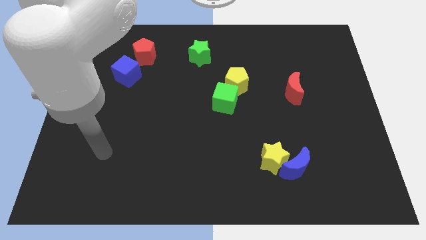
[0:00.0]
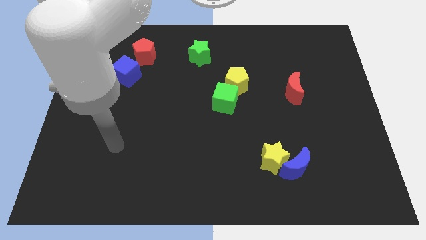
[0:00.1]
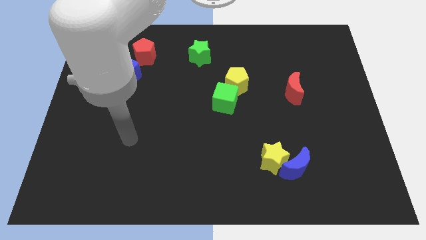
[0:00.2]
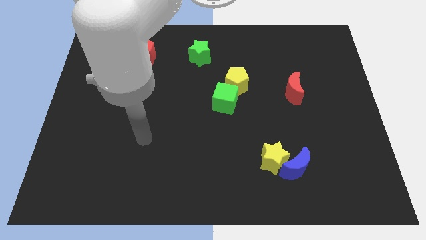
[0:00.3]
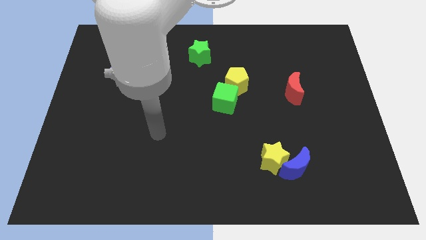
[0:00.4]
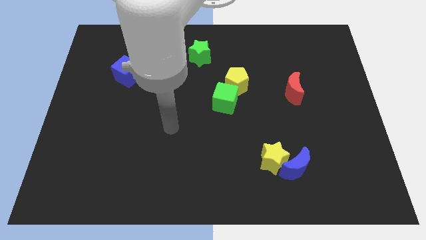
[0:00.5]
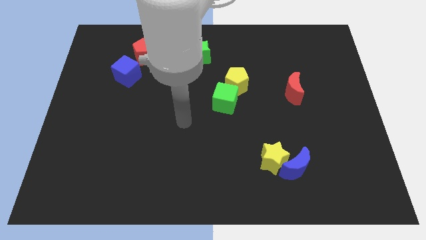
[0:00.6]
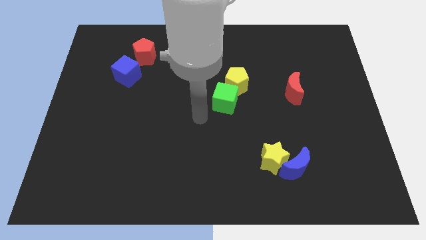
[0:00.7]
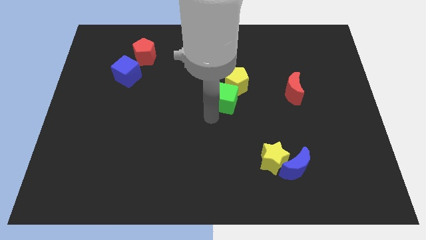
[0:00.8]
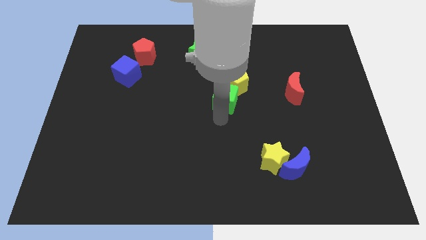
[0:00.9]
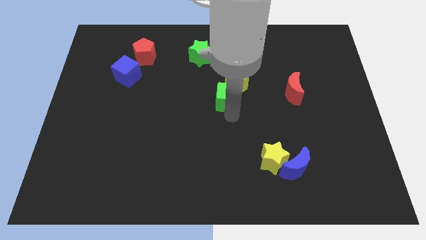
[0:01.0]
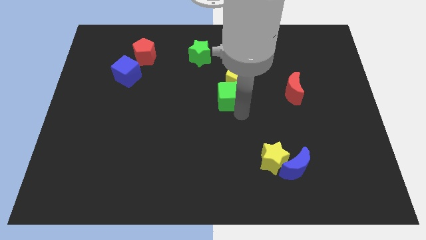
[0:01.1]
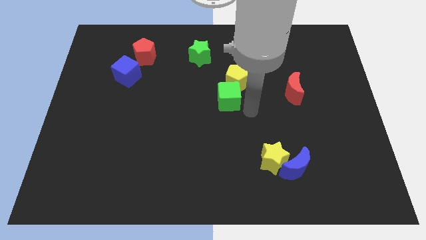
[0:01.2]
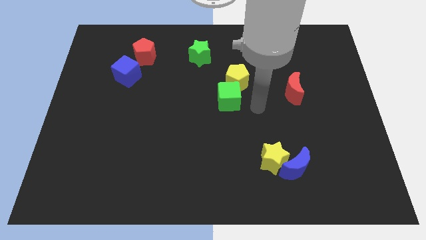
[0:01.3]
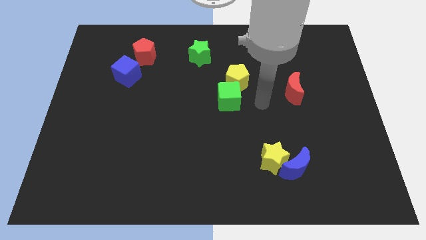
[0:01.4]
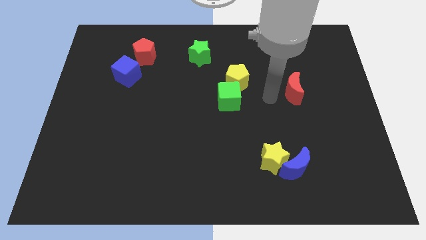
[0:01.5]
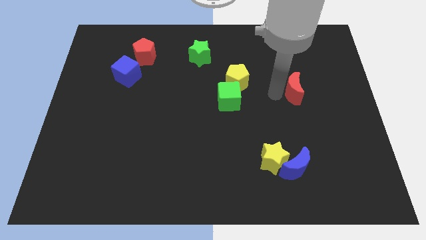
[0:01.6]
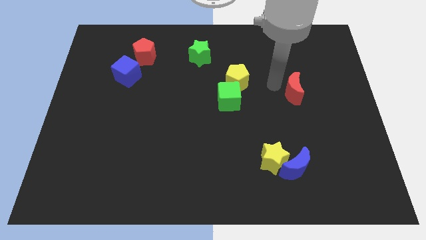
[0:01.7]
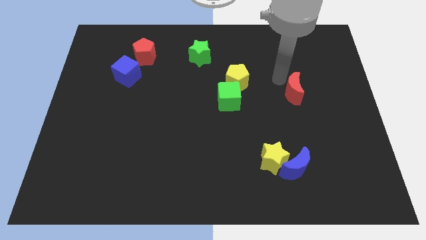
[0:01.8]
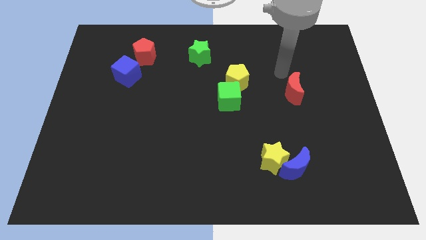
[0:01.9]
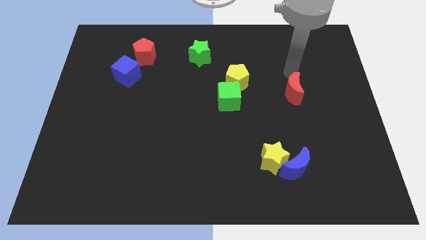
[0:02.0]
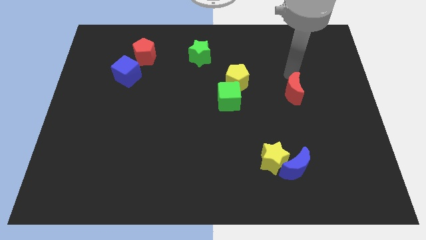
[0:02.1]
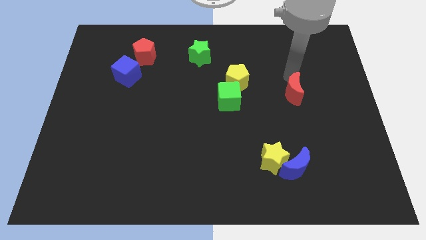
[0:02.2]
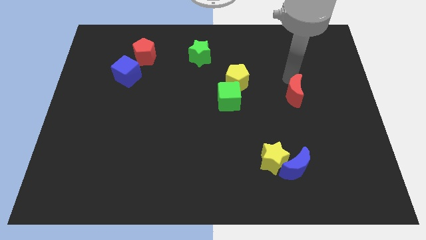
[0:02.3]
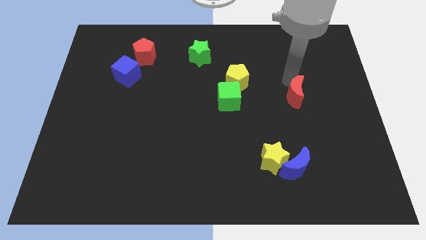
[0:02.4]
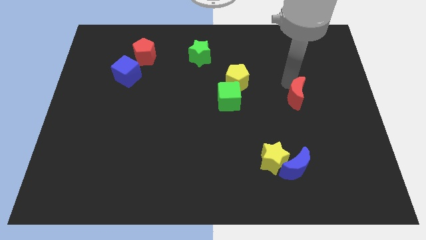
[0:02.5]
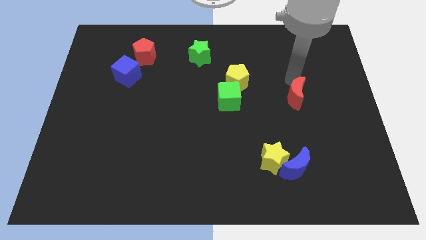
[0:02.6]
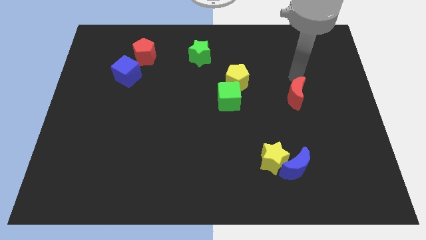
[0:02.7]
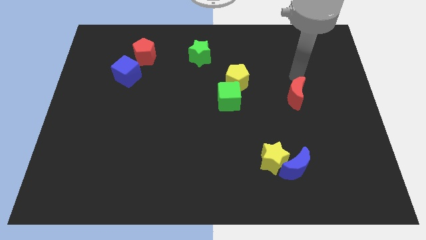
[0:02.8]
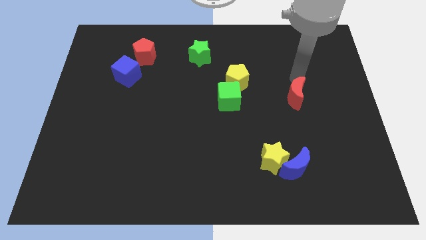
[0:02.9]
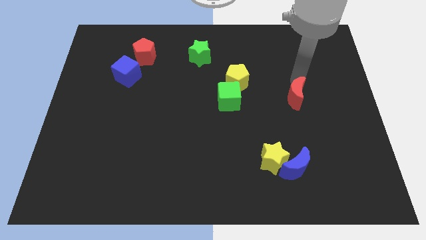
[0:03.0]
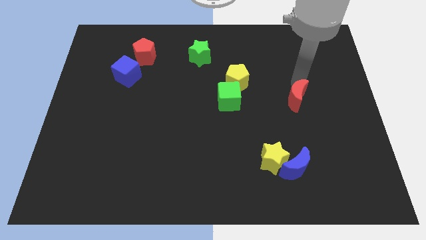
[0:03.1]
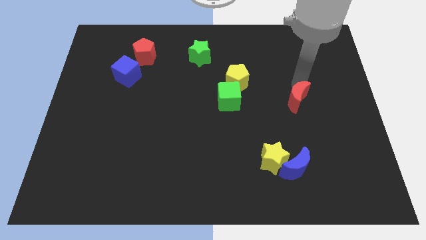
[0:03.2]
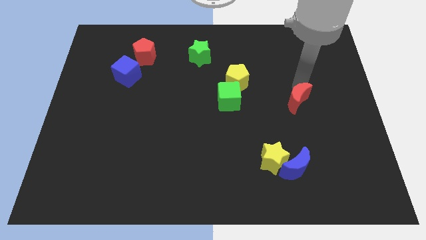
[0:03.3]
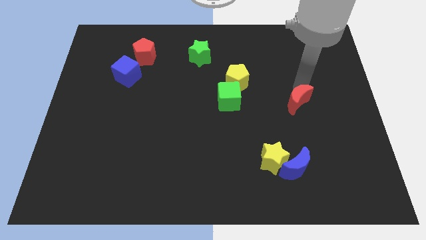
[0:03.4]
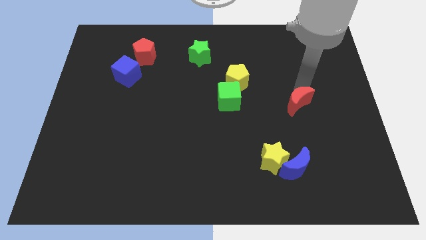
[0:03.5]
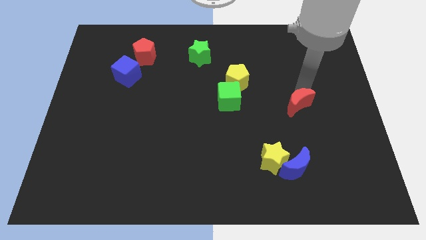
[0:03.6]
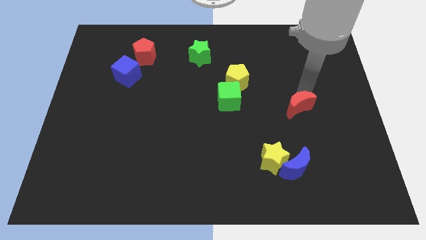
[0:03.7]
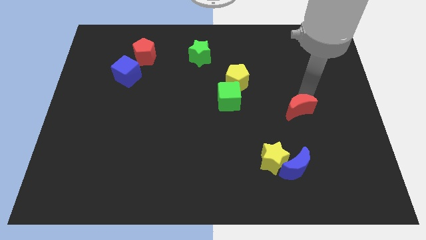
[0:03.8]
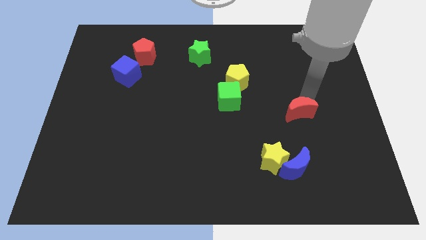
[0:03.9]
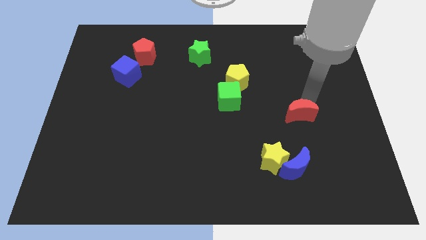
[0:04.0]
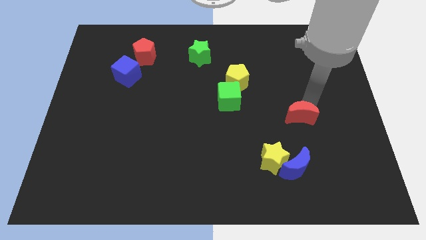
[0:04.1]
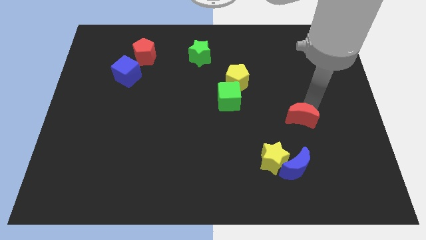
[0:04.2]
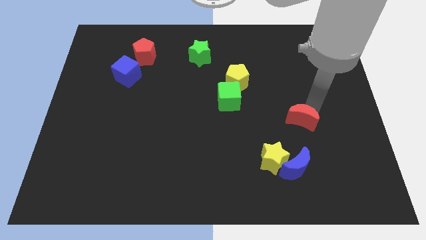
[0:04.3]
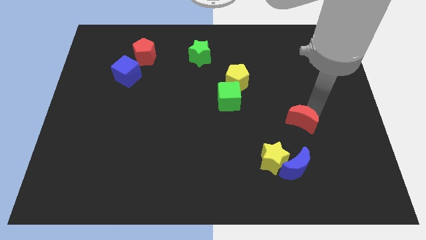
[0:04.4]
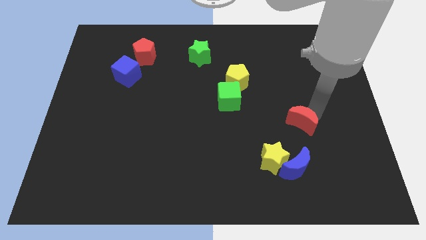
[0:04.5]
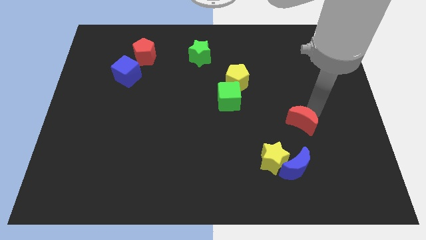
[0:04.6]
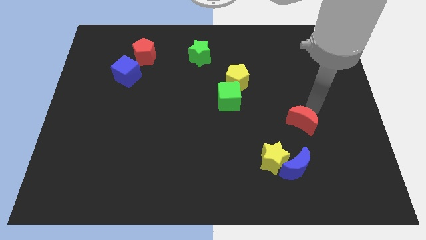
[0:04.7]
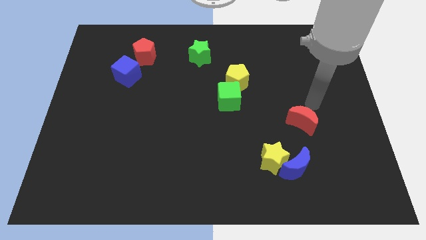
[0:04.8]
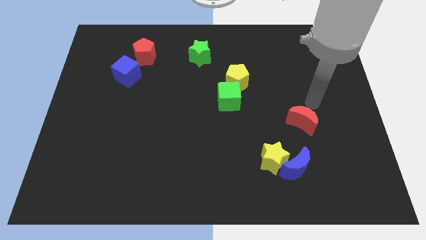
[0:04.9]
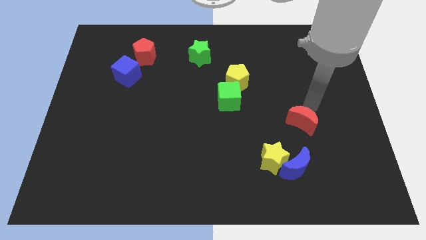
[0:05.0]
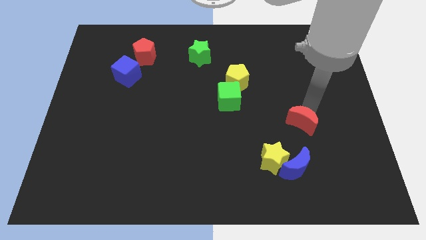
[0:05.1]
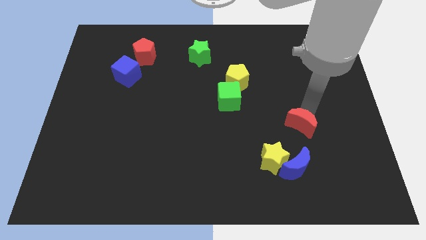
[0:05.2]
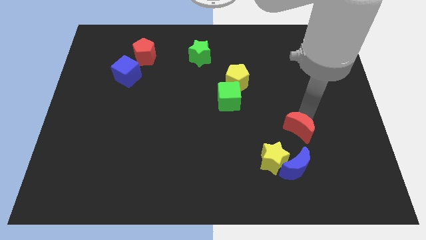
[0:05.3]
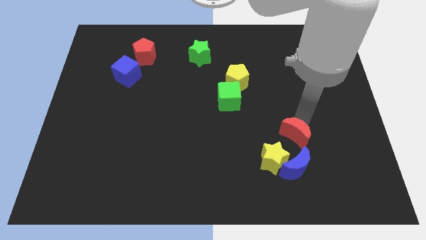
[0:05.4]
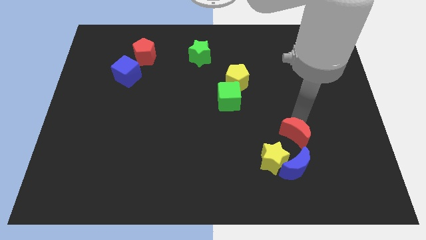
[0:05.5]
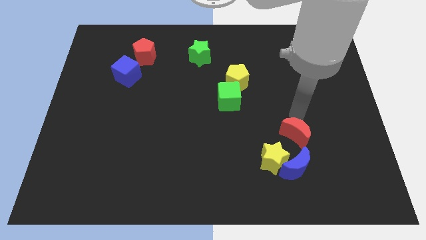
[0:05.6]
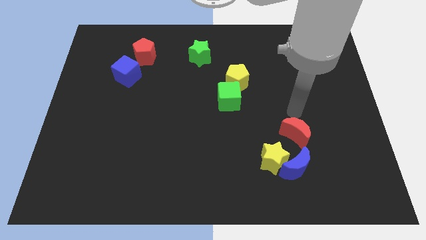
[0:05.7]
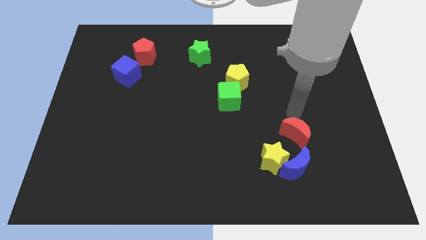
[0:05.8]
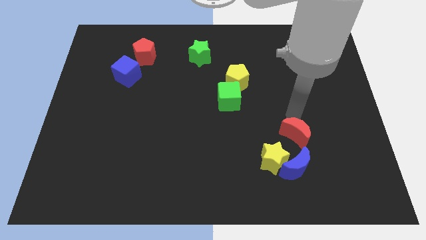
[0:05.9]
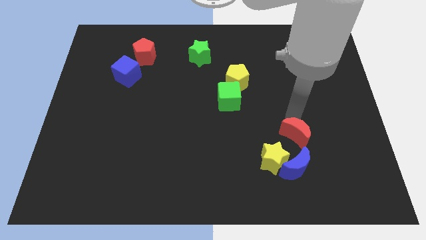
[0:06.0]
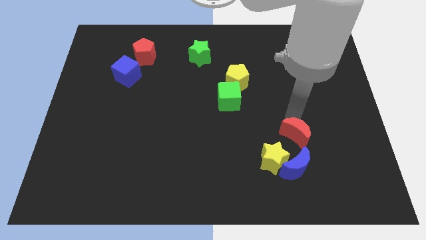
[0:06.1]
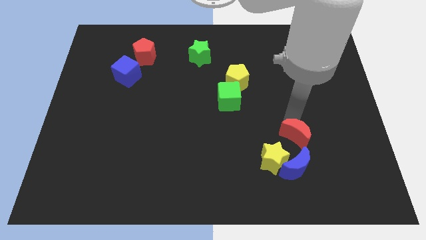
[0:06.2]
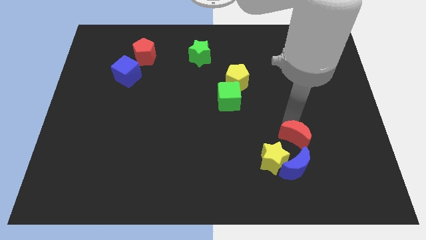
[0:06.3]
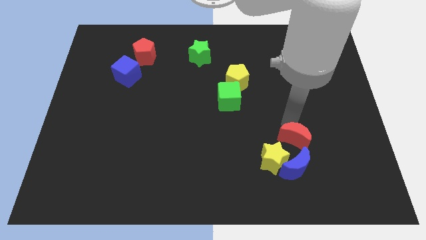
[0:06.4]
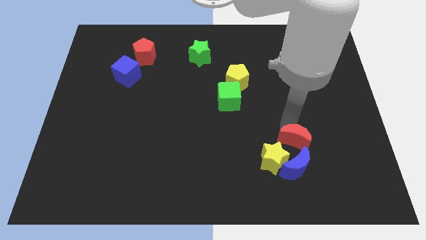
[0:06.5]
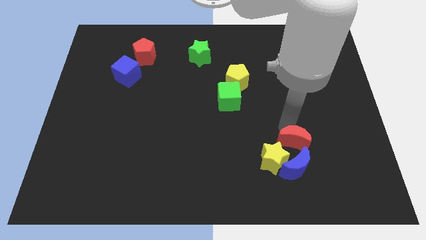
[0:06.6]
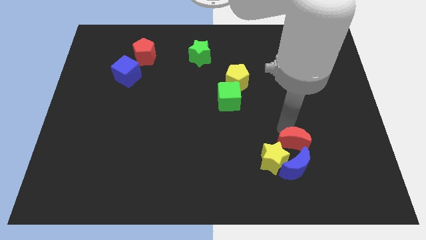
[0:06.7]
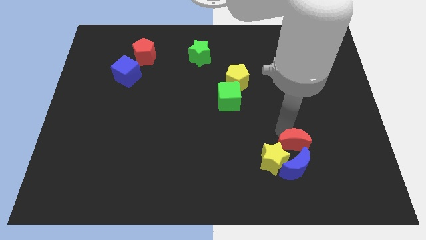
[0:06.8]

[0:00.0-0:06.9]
slide the red moon next to the blue moon

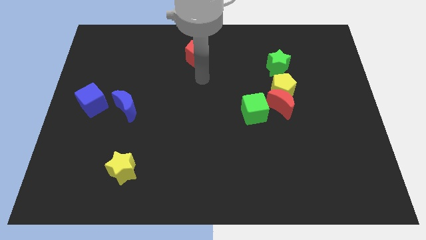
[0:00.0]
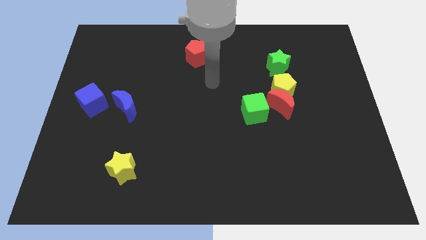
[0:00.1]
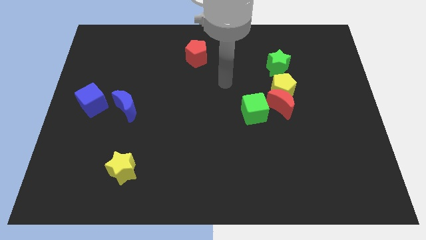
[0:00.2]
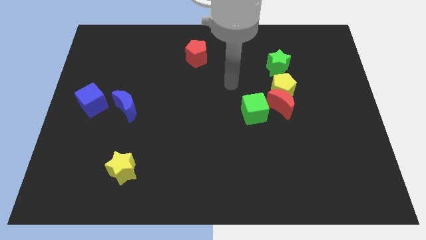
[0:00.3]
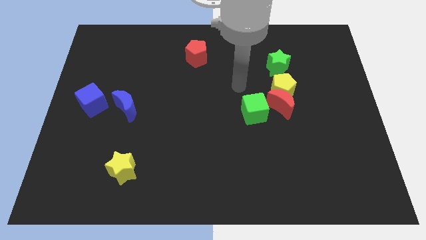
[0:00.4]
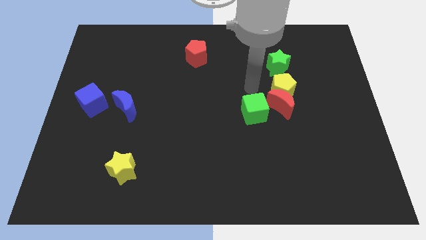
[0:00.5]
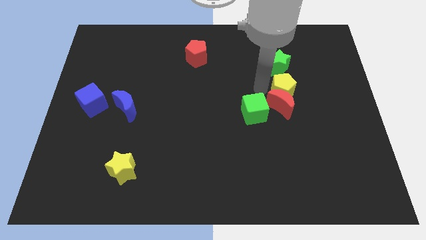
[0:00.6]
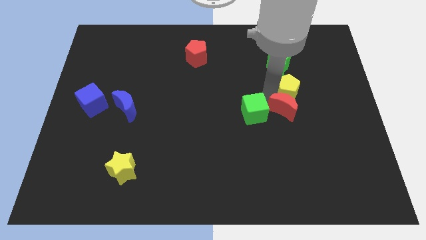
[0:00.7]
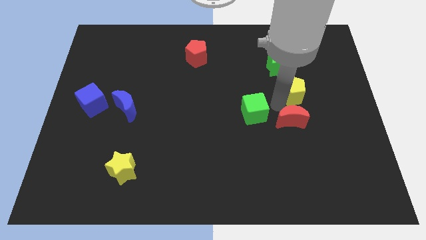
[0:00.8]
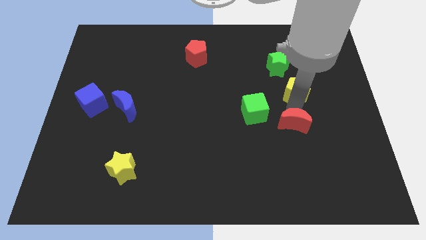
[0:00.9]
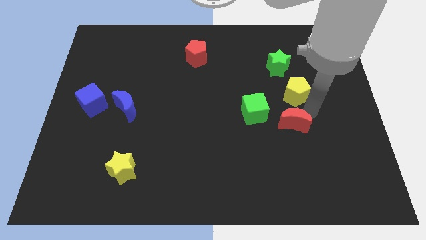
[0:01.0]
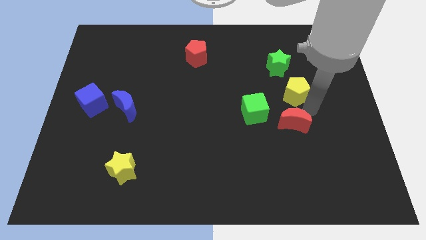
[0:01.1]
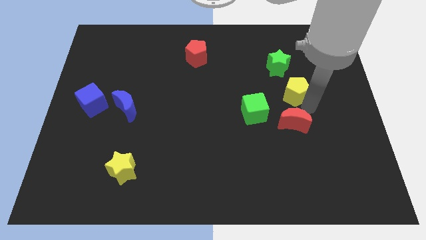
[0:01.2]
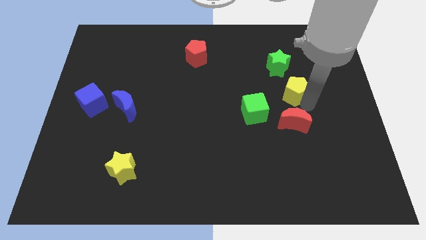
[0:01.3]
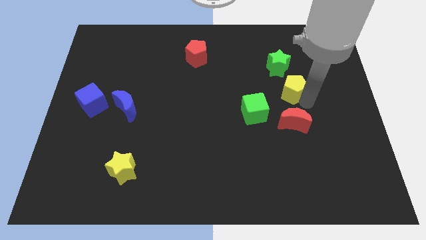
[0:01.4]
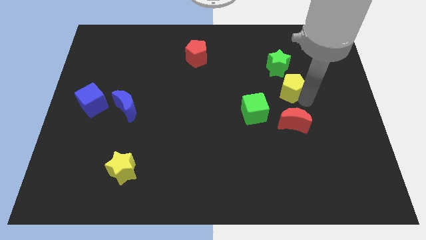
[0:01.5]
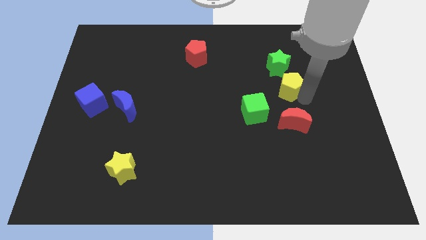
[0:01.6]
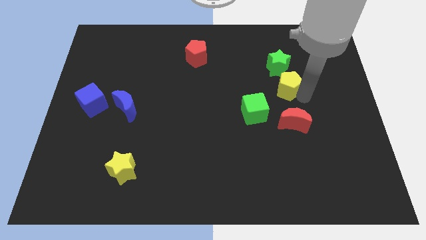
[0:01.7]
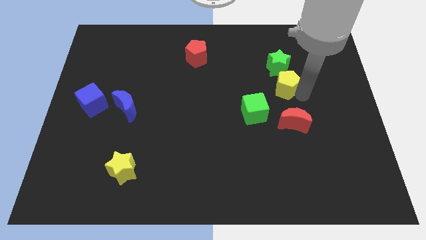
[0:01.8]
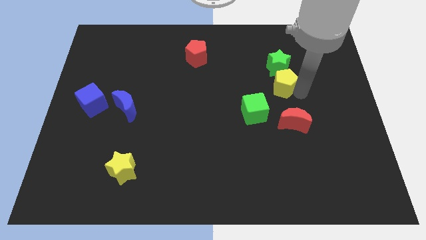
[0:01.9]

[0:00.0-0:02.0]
push the yellow pentagon to the green star
